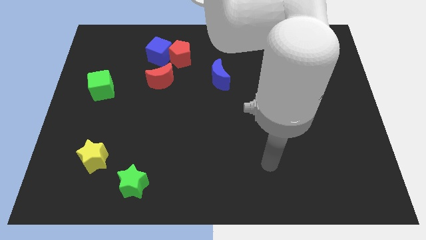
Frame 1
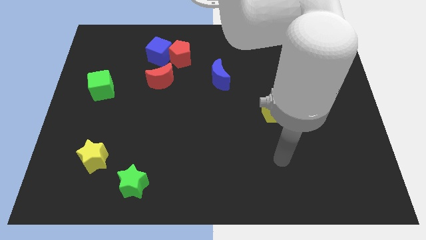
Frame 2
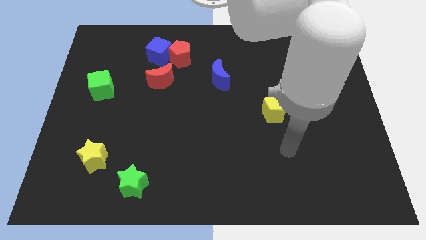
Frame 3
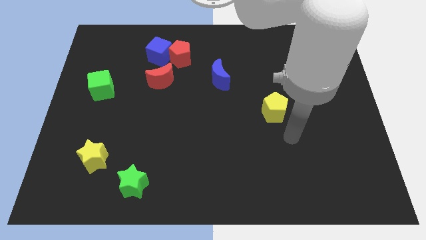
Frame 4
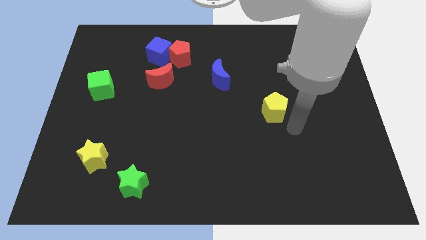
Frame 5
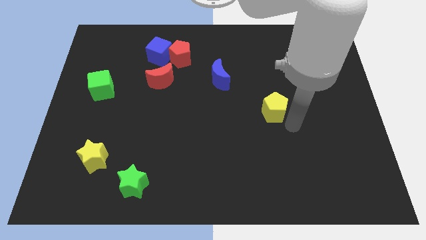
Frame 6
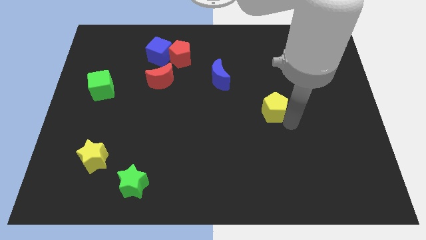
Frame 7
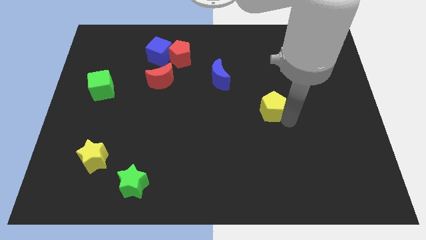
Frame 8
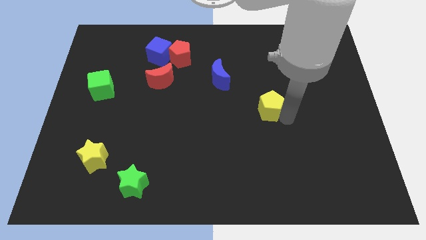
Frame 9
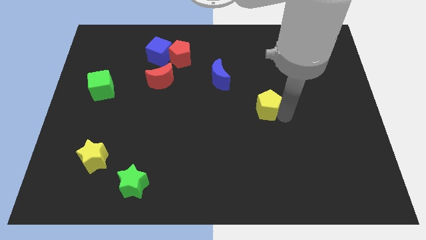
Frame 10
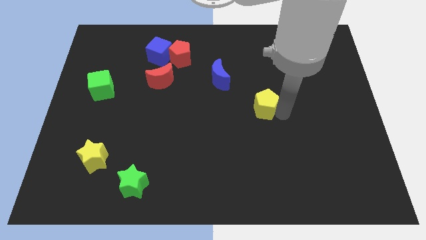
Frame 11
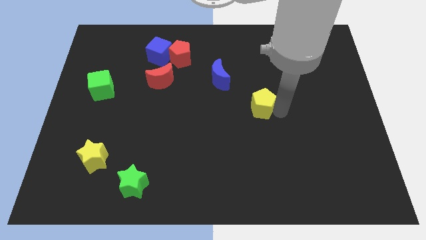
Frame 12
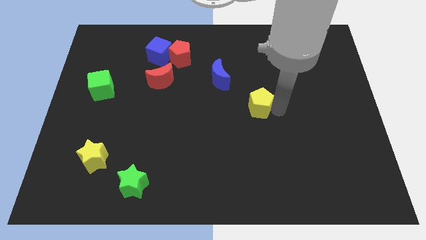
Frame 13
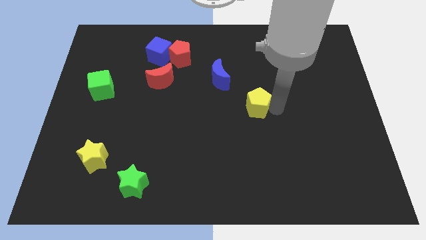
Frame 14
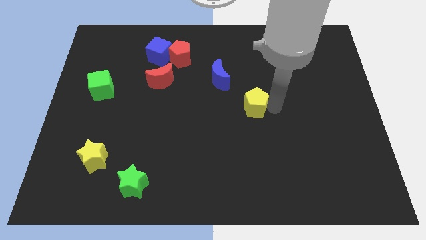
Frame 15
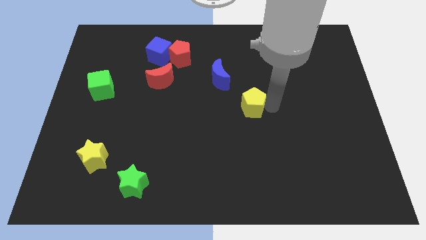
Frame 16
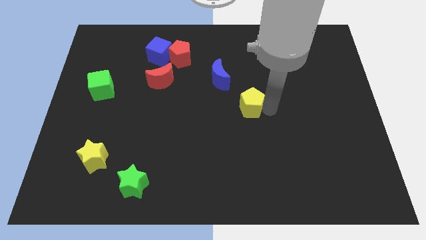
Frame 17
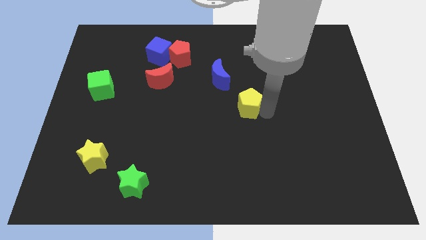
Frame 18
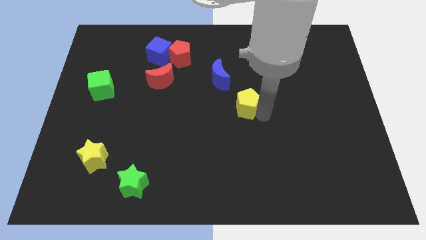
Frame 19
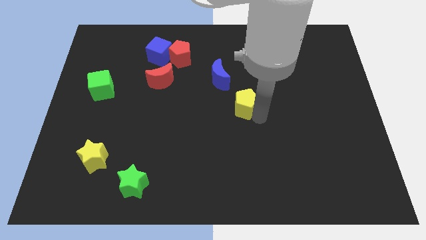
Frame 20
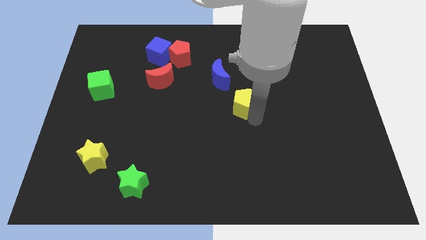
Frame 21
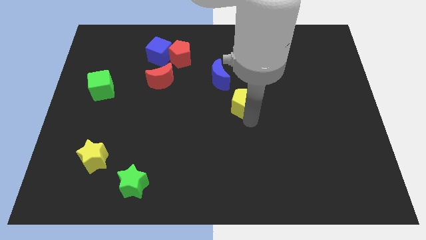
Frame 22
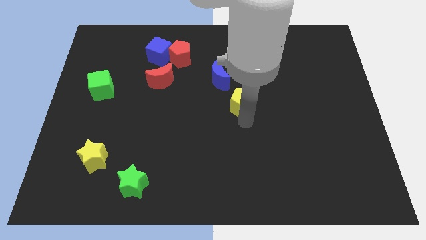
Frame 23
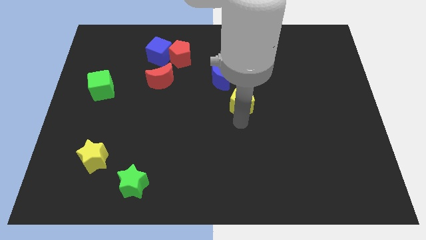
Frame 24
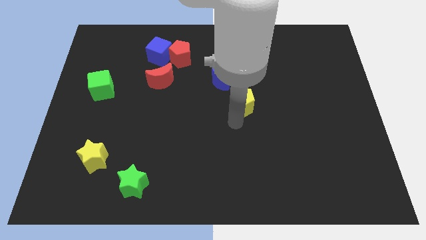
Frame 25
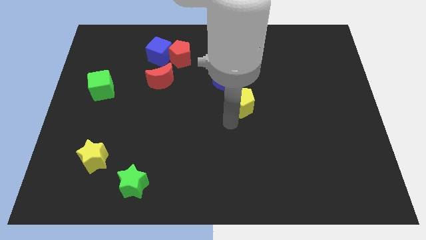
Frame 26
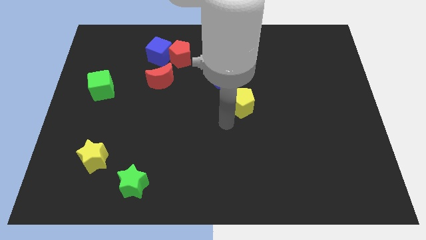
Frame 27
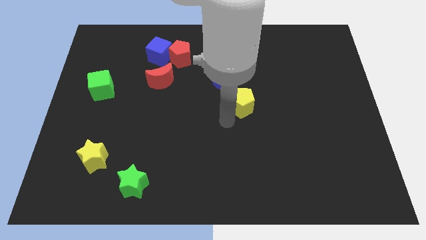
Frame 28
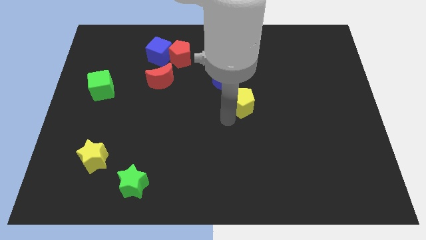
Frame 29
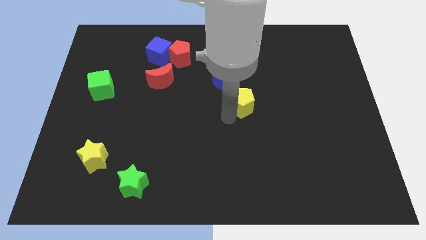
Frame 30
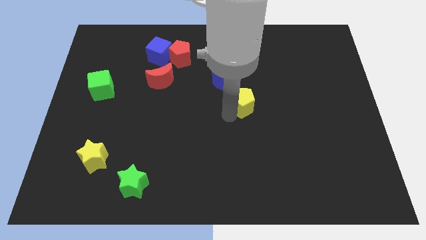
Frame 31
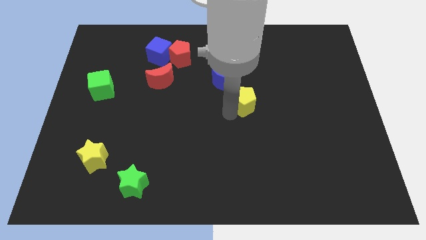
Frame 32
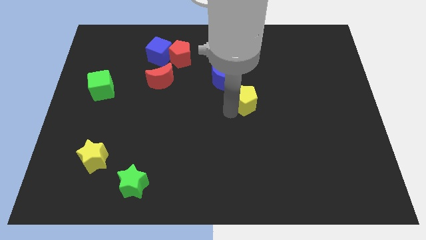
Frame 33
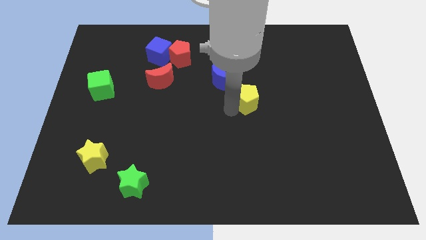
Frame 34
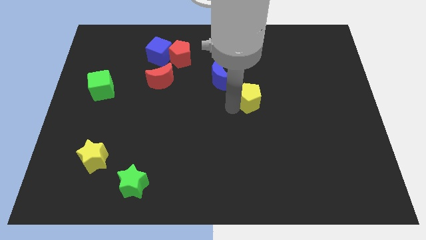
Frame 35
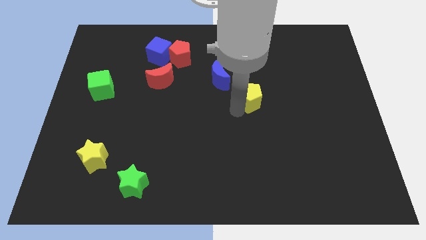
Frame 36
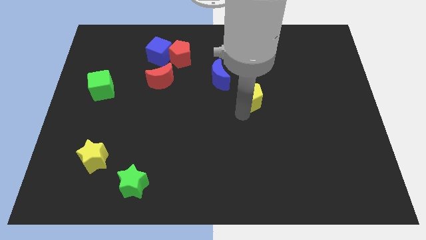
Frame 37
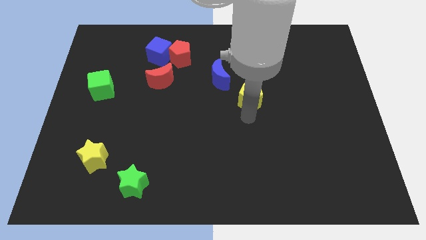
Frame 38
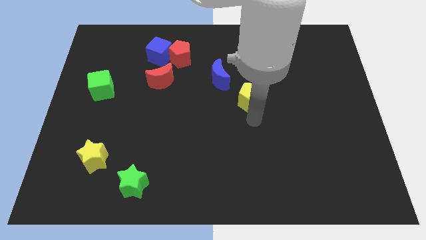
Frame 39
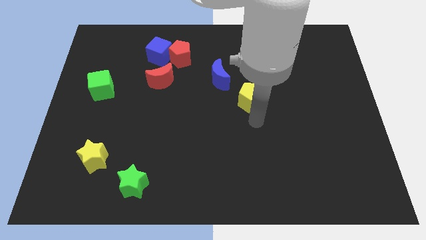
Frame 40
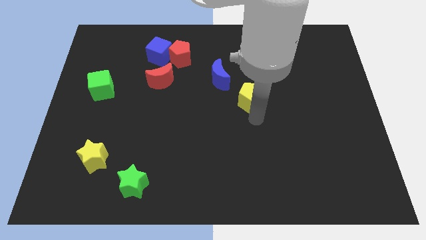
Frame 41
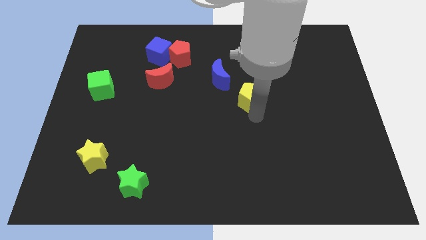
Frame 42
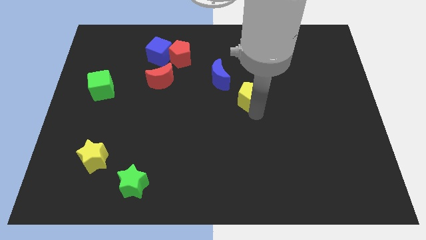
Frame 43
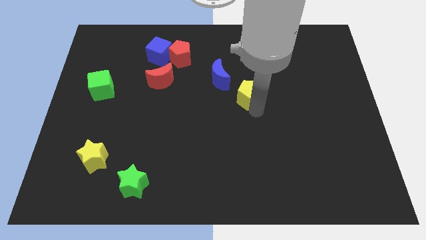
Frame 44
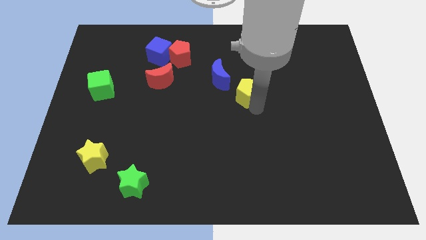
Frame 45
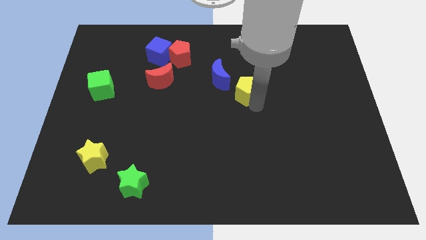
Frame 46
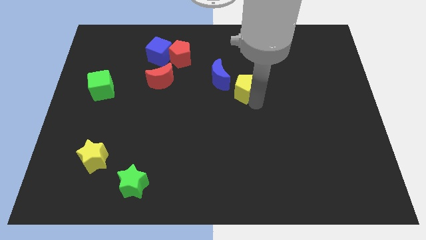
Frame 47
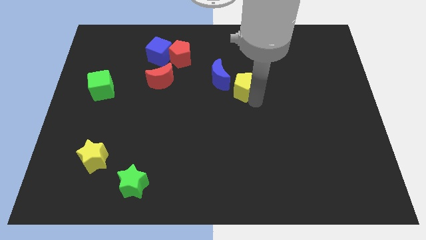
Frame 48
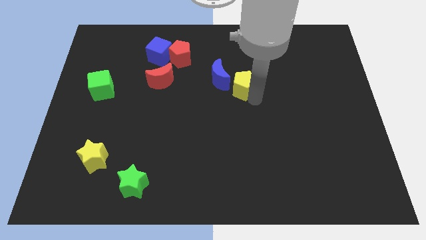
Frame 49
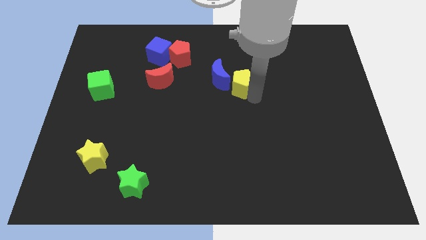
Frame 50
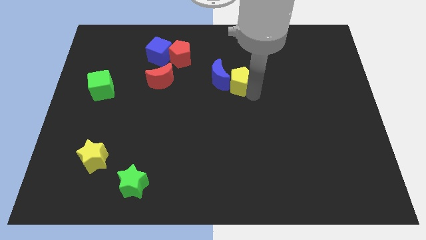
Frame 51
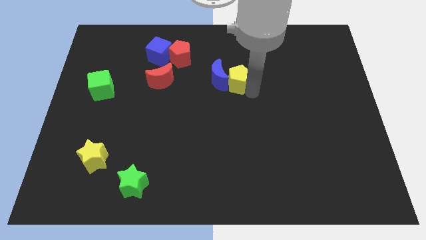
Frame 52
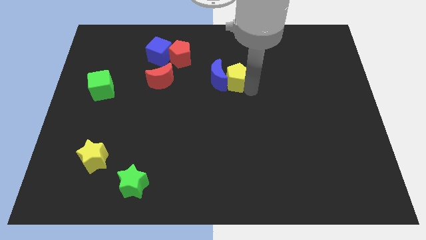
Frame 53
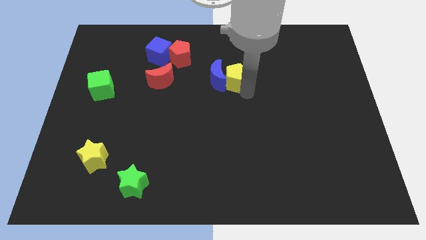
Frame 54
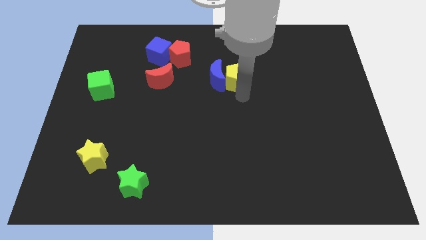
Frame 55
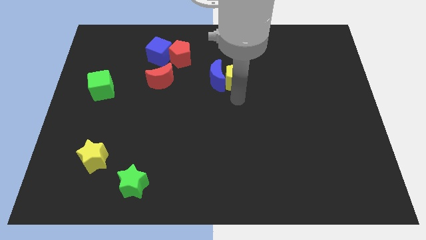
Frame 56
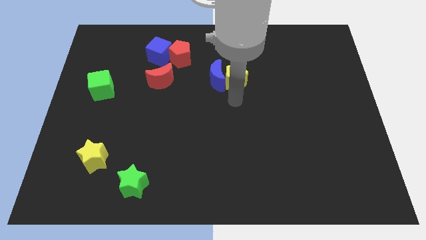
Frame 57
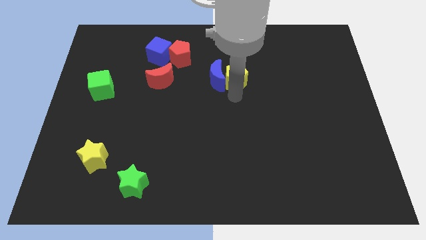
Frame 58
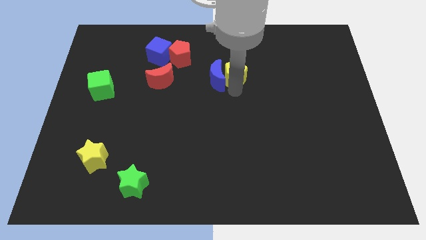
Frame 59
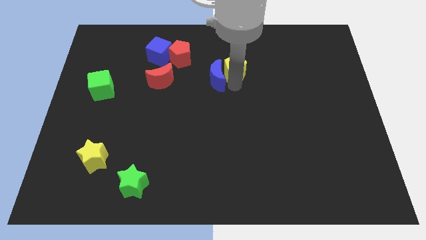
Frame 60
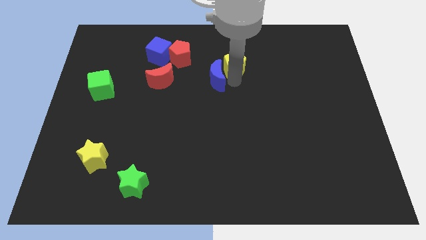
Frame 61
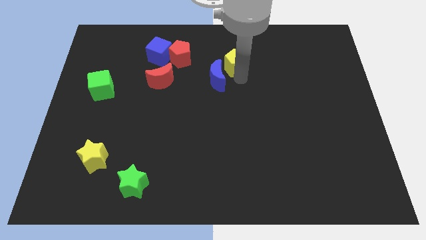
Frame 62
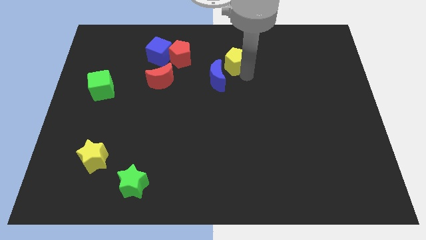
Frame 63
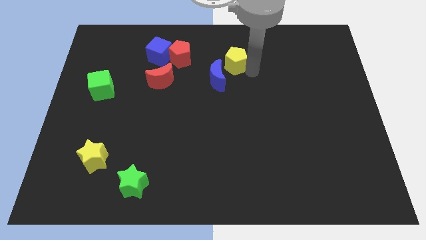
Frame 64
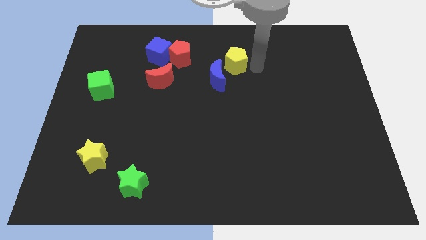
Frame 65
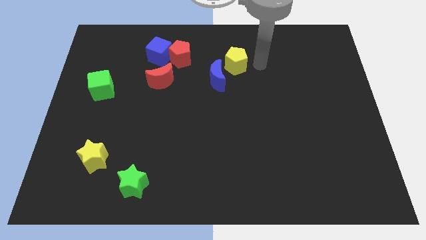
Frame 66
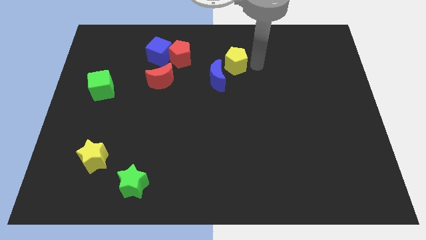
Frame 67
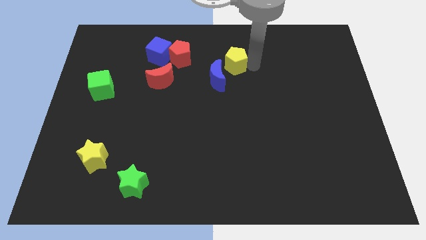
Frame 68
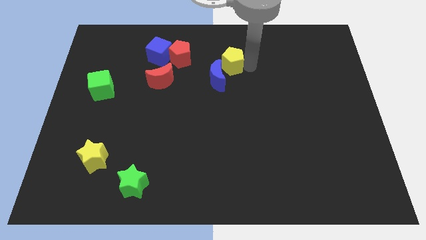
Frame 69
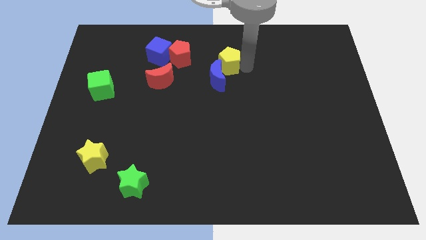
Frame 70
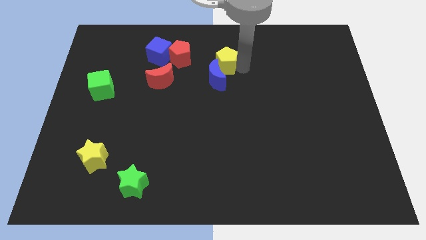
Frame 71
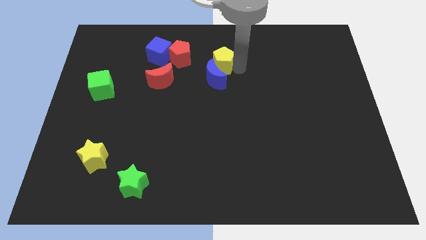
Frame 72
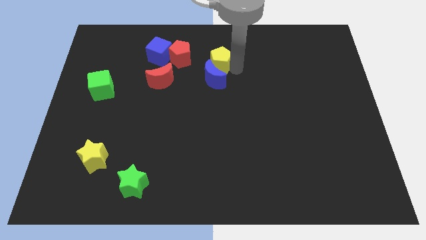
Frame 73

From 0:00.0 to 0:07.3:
slide the yellow pentagon to the top left of the blue moon

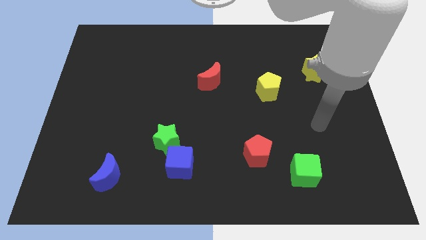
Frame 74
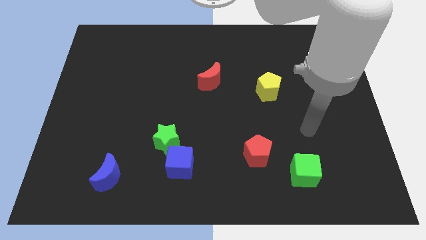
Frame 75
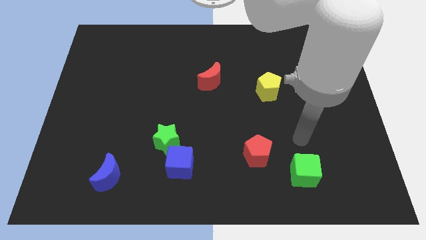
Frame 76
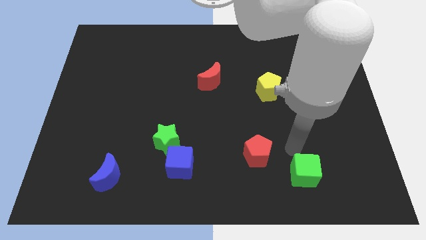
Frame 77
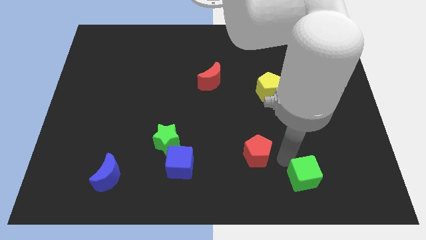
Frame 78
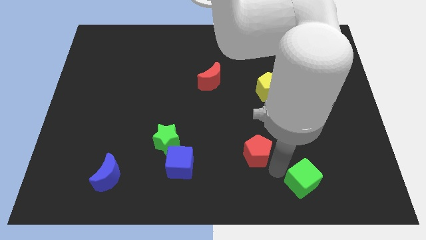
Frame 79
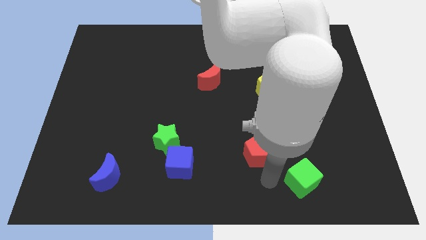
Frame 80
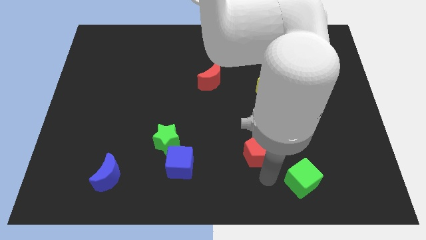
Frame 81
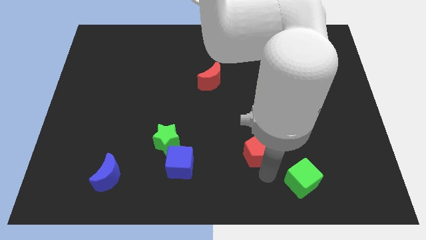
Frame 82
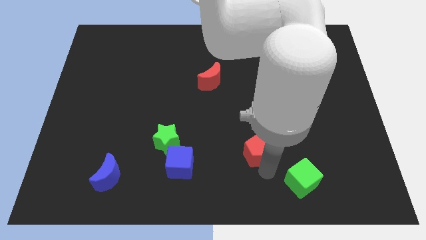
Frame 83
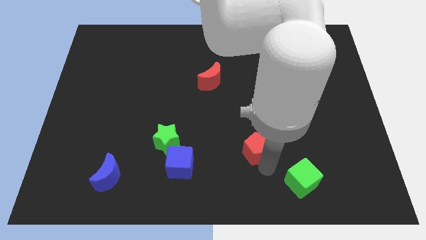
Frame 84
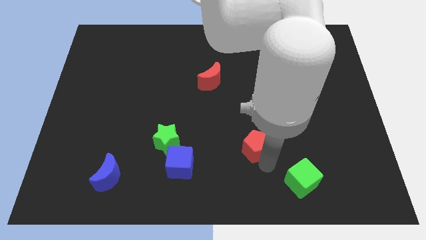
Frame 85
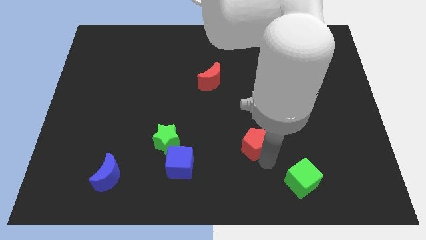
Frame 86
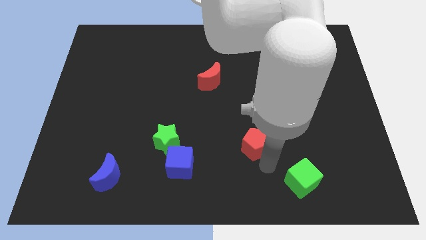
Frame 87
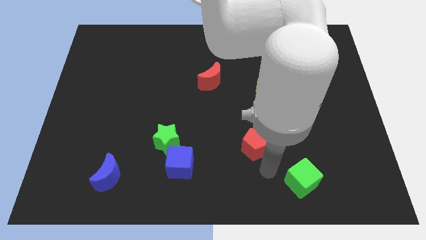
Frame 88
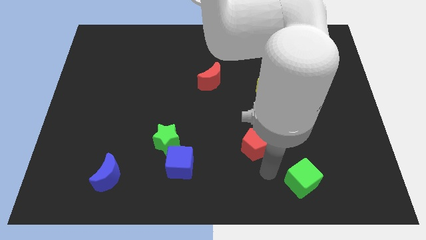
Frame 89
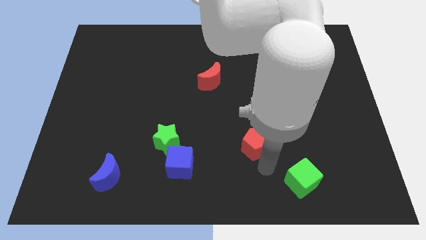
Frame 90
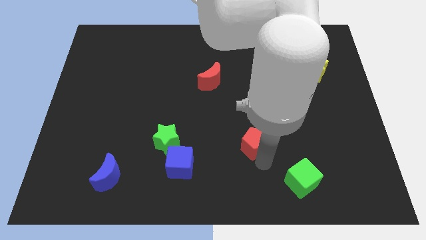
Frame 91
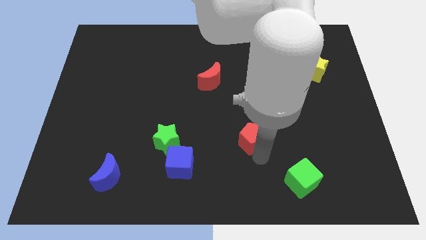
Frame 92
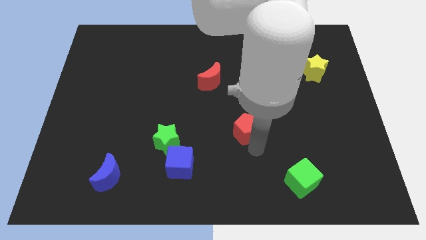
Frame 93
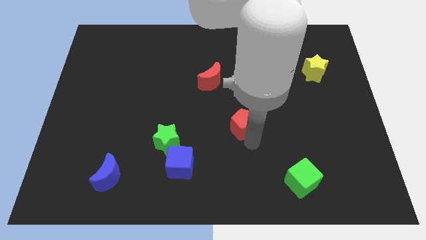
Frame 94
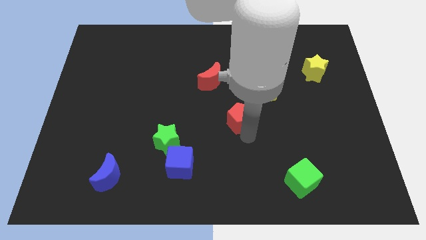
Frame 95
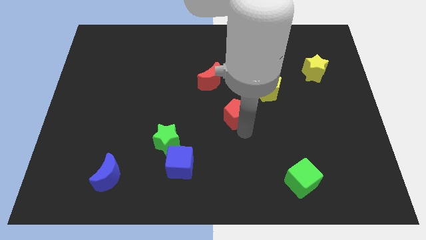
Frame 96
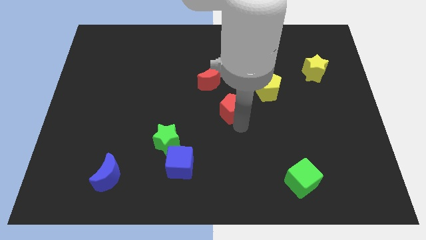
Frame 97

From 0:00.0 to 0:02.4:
move the red pentagon to the bottom right side of the red moon
